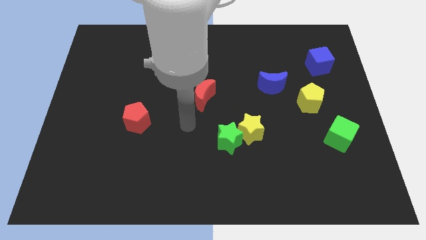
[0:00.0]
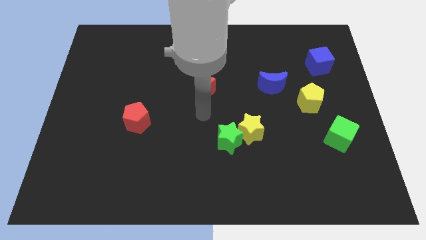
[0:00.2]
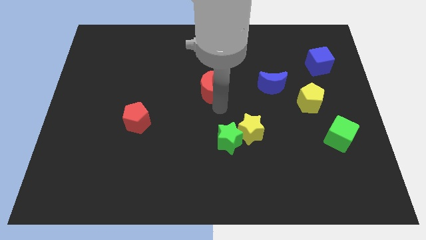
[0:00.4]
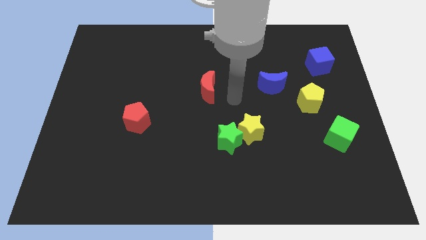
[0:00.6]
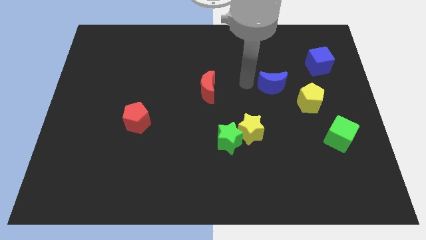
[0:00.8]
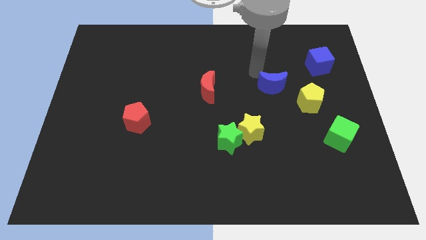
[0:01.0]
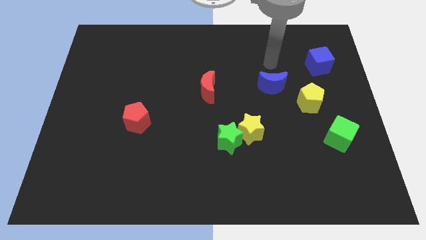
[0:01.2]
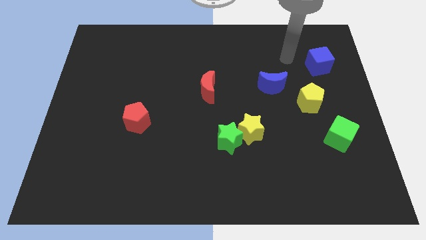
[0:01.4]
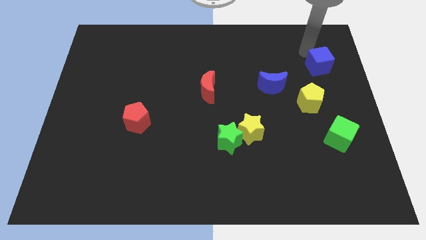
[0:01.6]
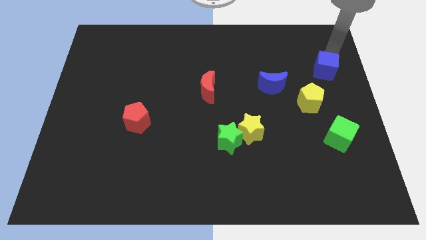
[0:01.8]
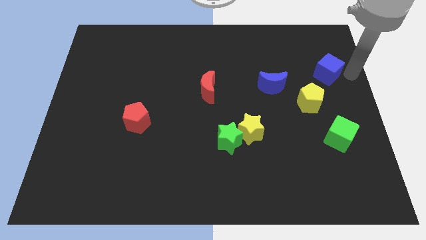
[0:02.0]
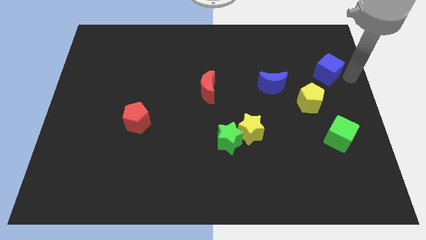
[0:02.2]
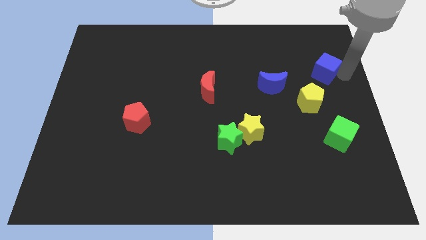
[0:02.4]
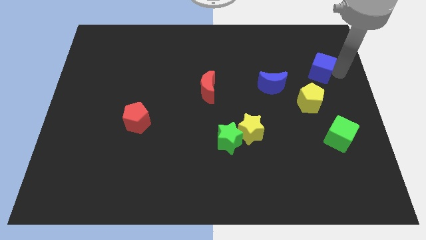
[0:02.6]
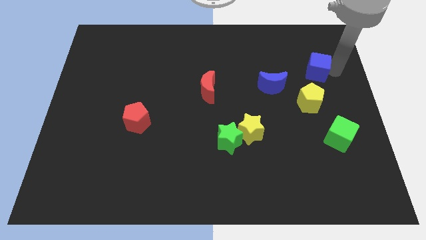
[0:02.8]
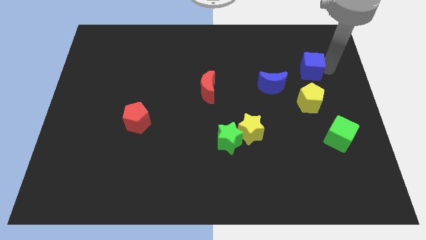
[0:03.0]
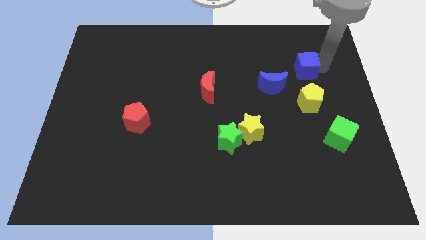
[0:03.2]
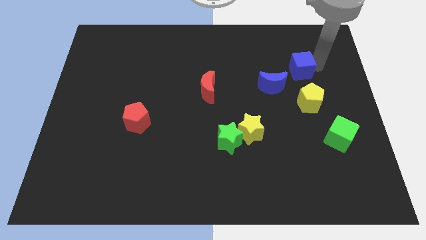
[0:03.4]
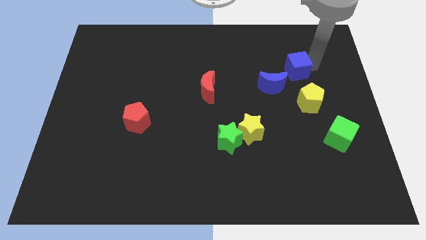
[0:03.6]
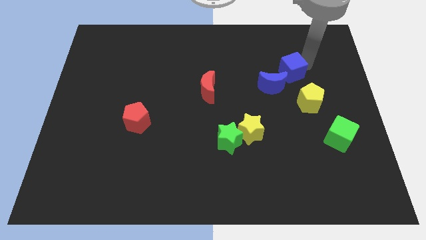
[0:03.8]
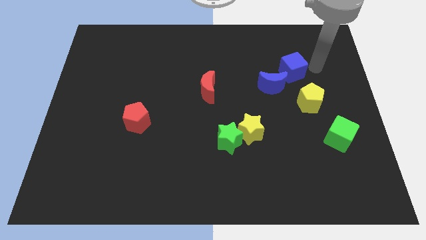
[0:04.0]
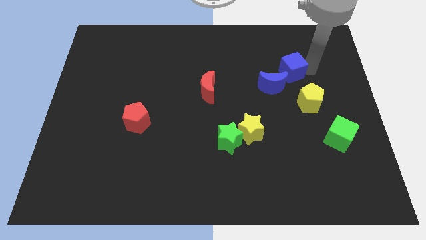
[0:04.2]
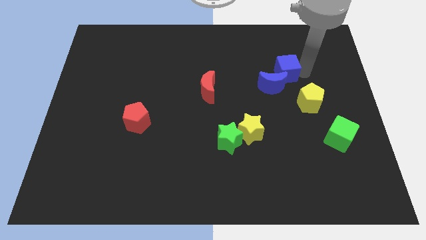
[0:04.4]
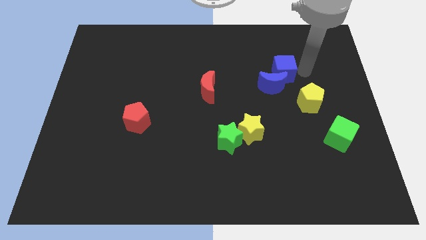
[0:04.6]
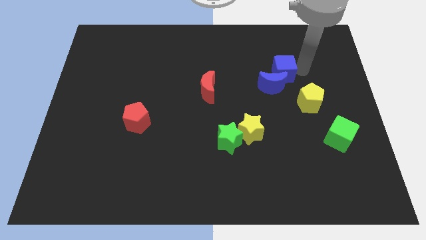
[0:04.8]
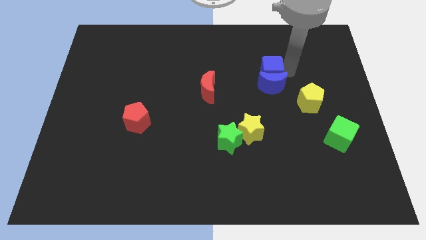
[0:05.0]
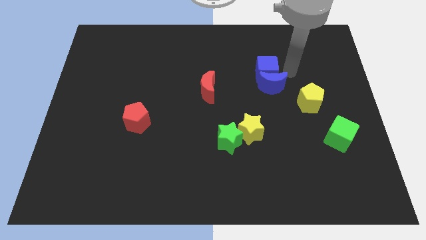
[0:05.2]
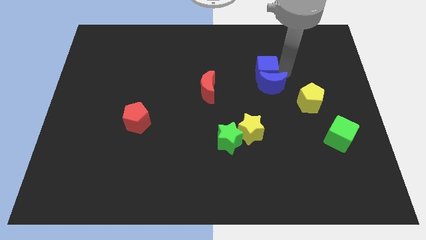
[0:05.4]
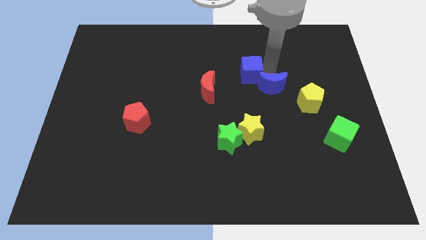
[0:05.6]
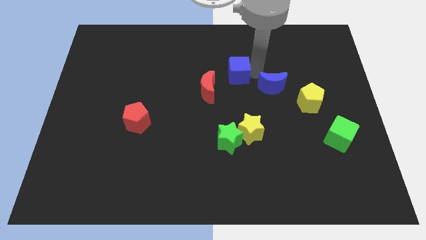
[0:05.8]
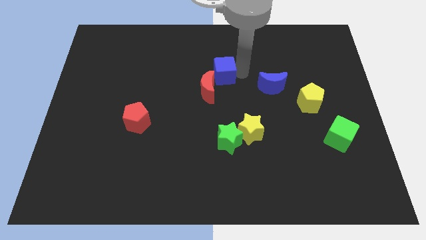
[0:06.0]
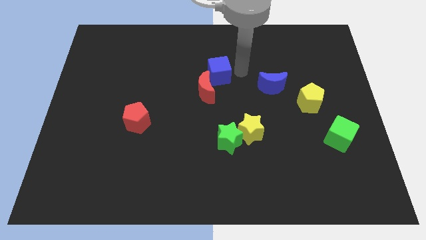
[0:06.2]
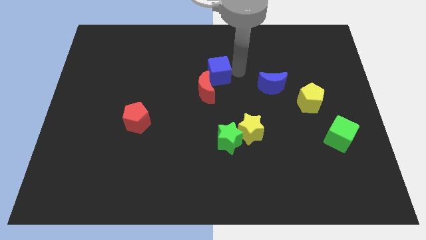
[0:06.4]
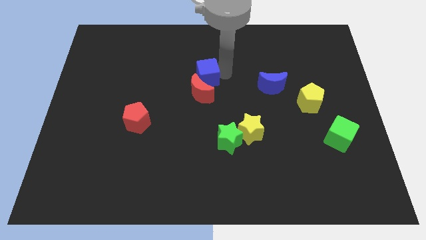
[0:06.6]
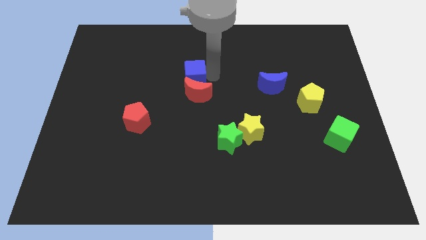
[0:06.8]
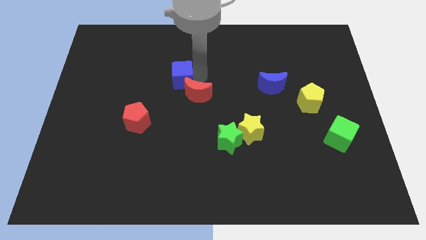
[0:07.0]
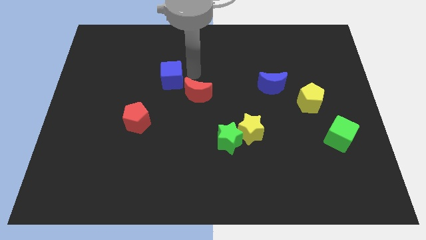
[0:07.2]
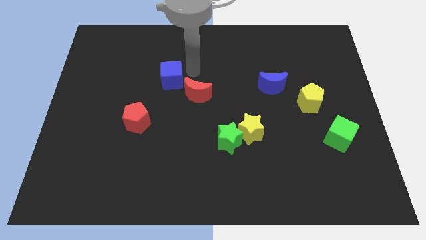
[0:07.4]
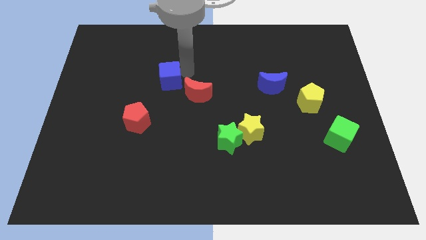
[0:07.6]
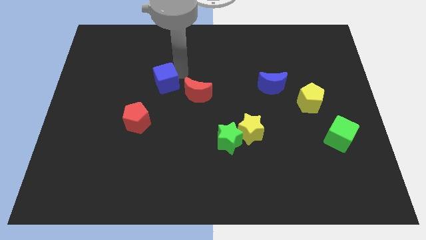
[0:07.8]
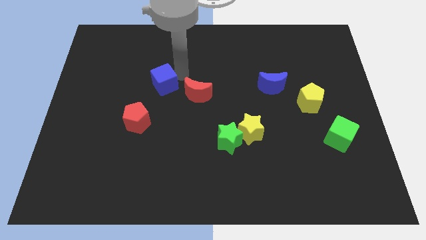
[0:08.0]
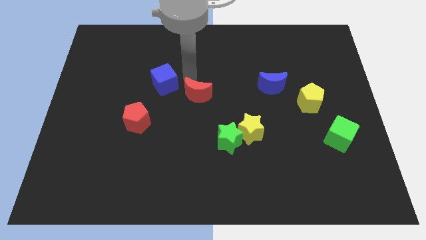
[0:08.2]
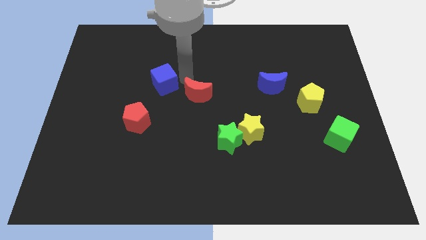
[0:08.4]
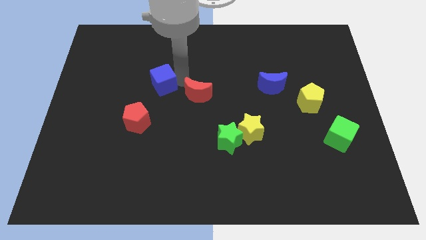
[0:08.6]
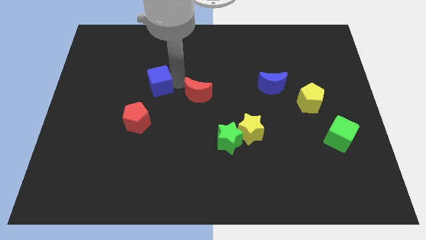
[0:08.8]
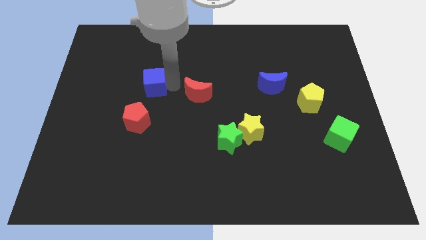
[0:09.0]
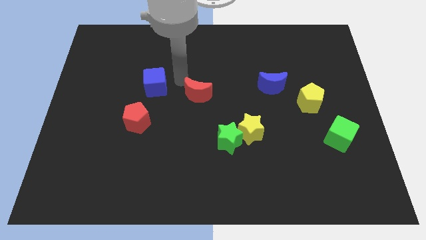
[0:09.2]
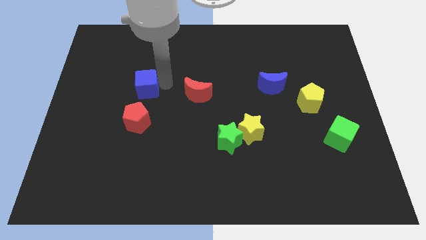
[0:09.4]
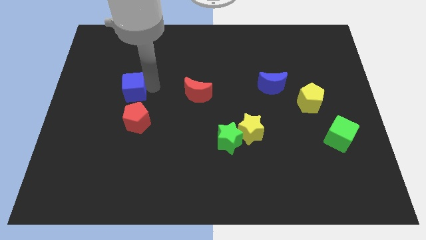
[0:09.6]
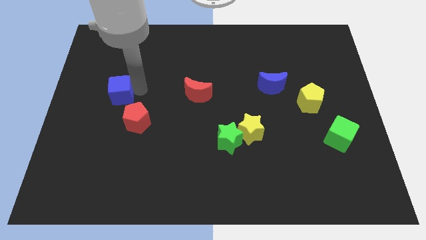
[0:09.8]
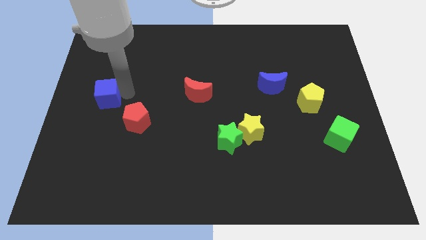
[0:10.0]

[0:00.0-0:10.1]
put the blue cube to the left side

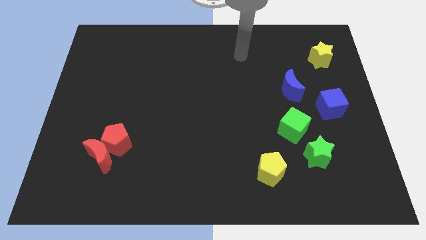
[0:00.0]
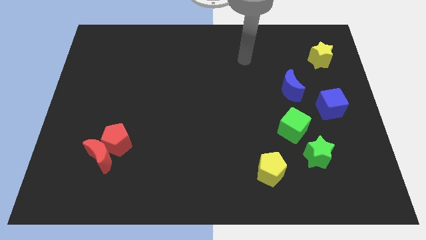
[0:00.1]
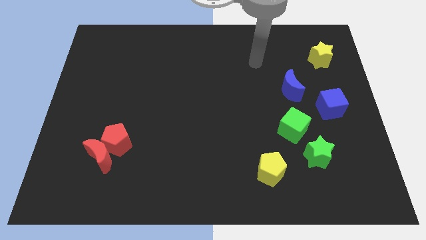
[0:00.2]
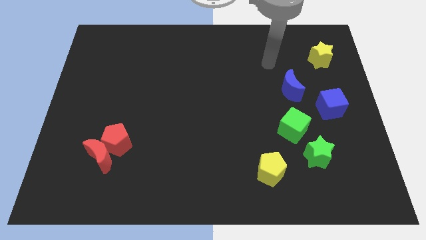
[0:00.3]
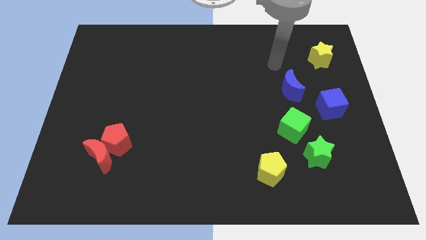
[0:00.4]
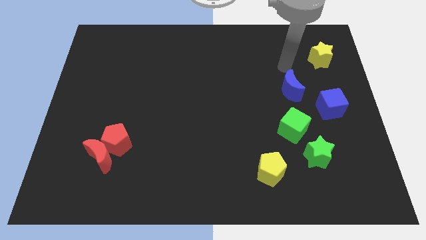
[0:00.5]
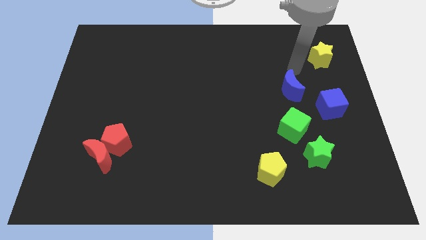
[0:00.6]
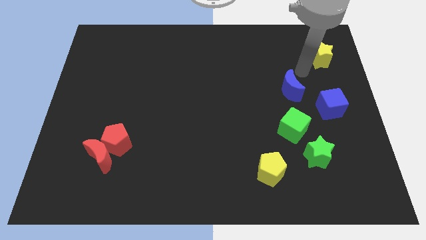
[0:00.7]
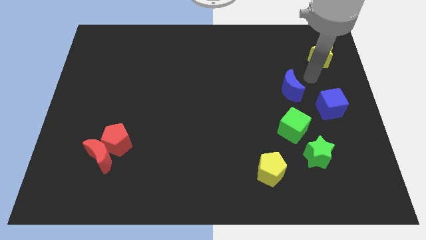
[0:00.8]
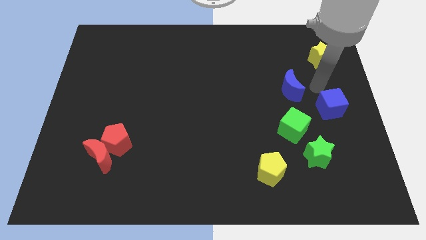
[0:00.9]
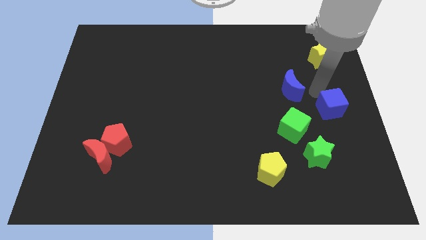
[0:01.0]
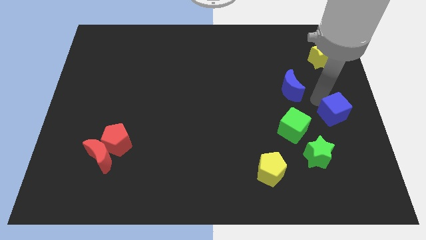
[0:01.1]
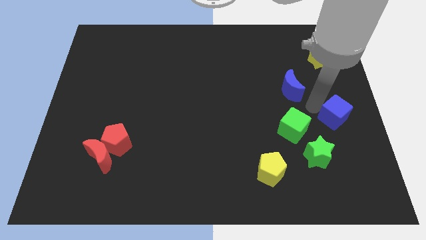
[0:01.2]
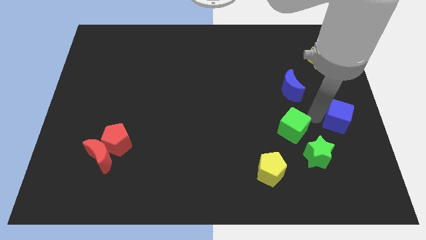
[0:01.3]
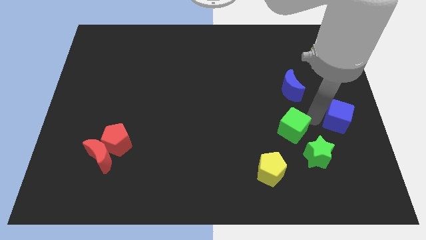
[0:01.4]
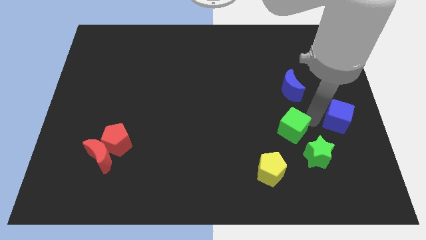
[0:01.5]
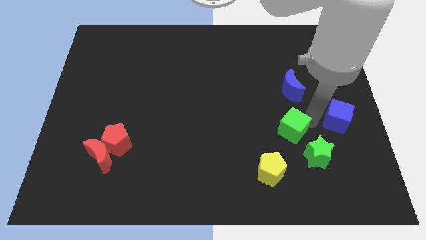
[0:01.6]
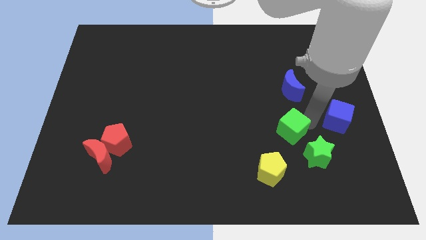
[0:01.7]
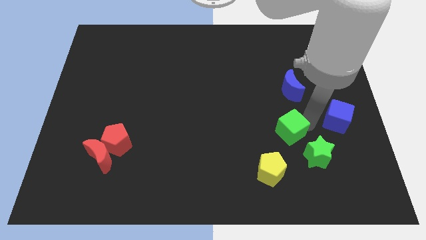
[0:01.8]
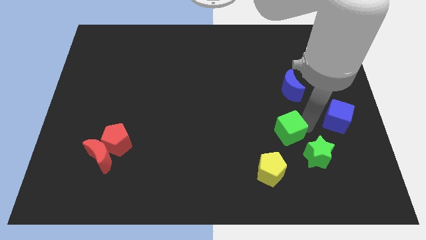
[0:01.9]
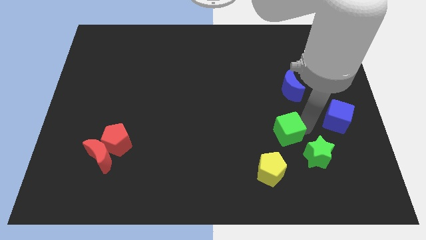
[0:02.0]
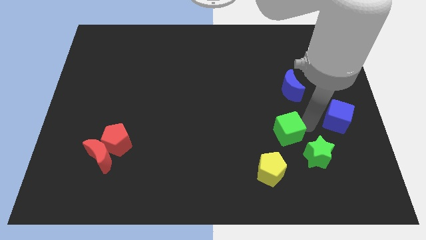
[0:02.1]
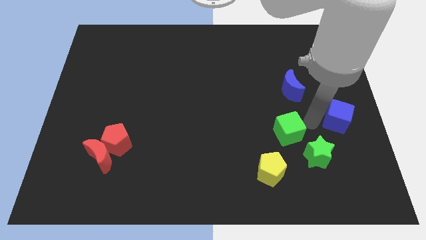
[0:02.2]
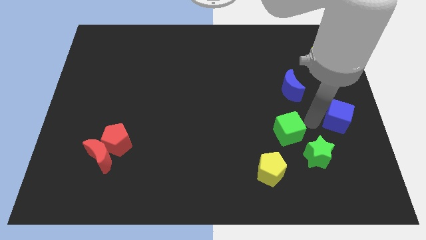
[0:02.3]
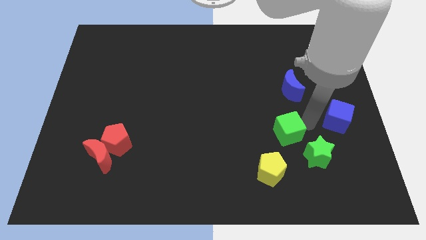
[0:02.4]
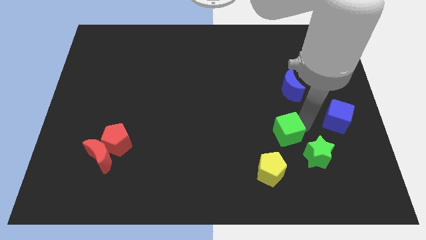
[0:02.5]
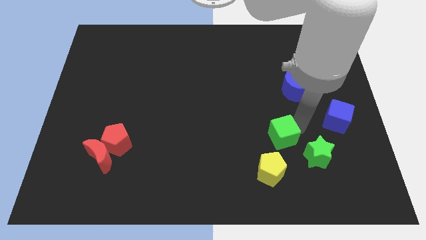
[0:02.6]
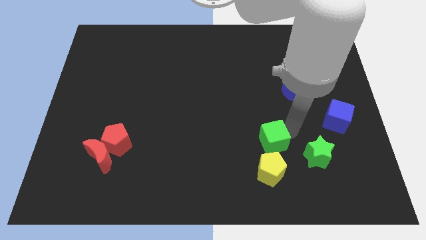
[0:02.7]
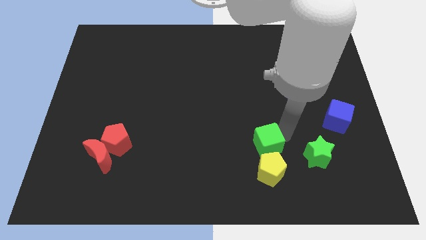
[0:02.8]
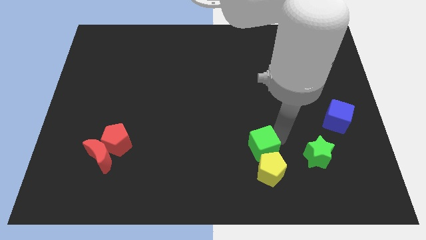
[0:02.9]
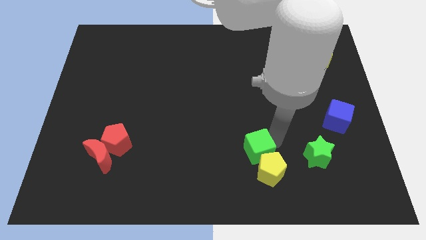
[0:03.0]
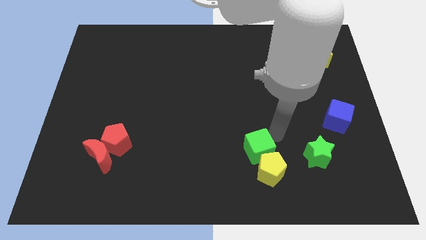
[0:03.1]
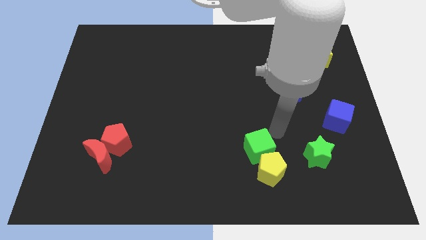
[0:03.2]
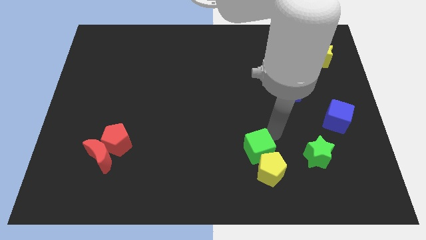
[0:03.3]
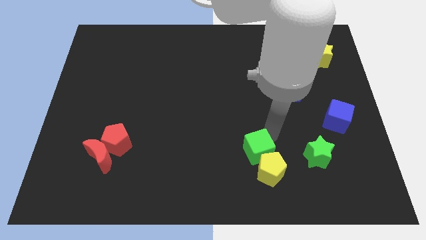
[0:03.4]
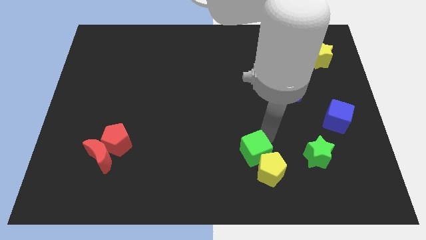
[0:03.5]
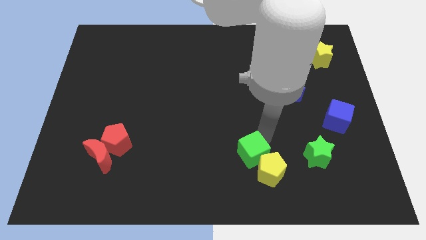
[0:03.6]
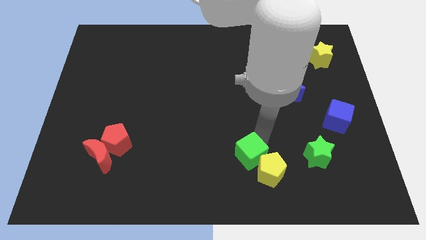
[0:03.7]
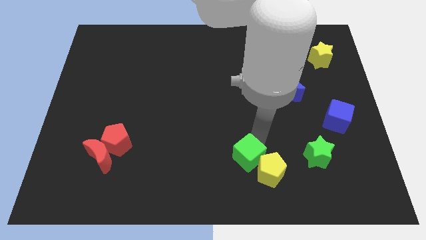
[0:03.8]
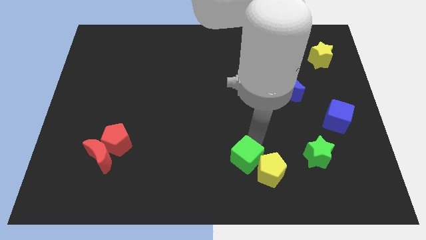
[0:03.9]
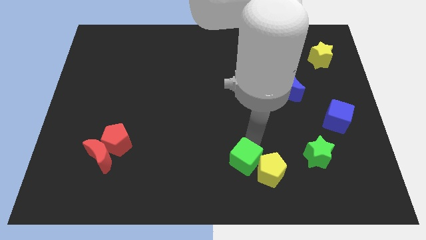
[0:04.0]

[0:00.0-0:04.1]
slide the green cube to the bottom side
